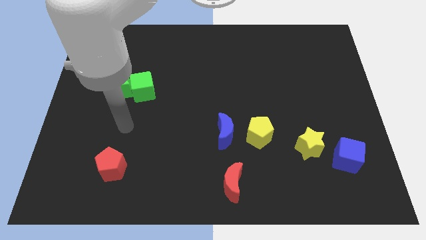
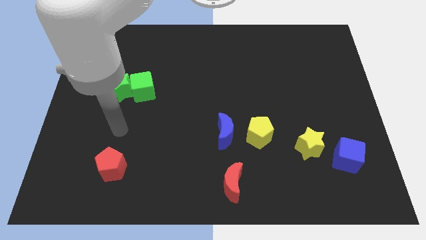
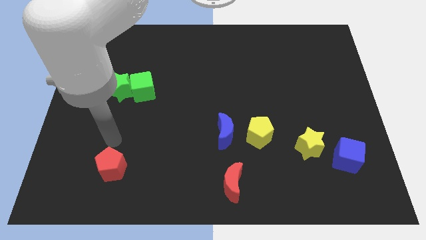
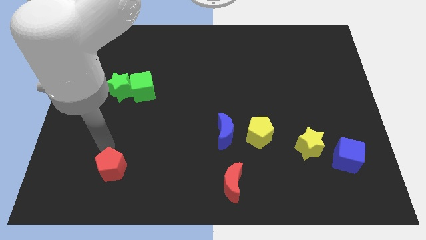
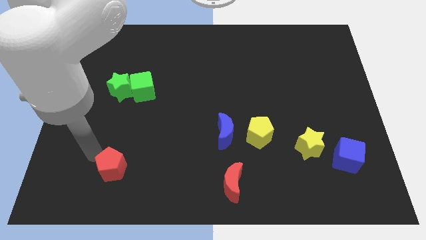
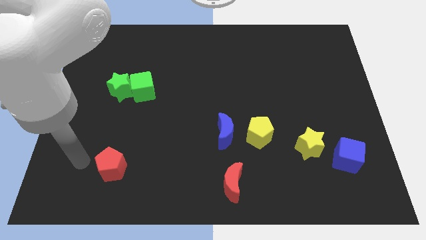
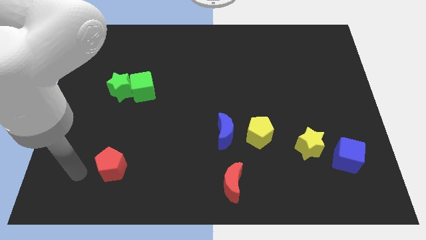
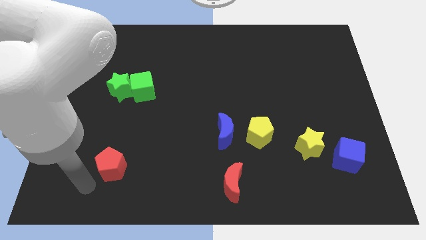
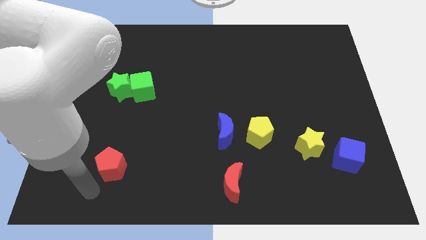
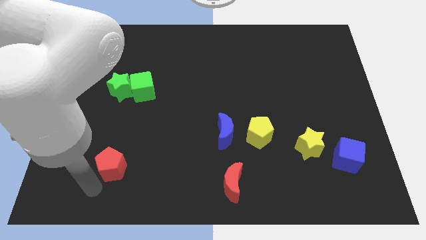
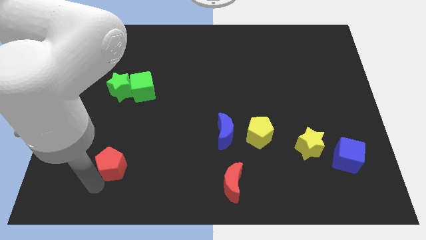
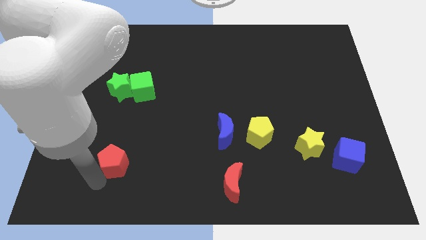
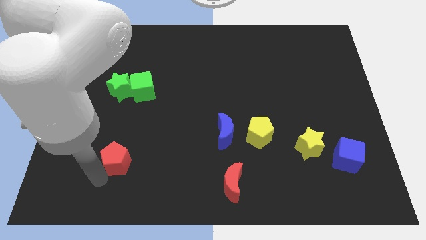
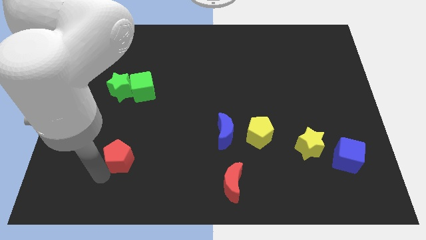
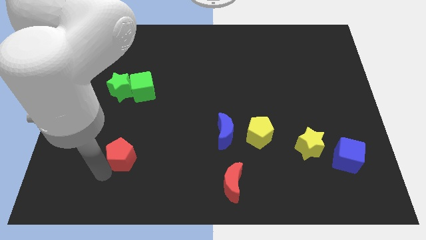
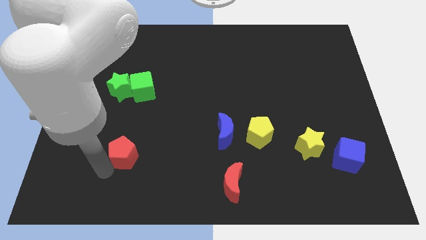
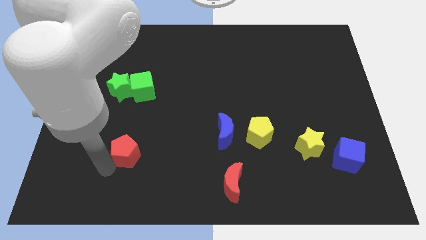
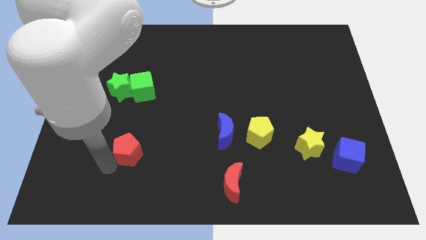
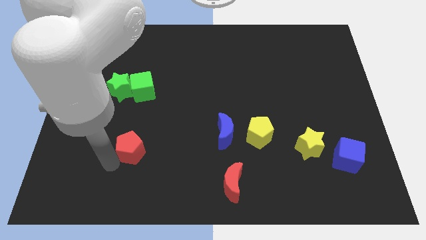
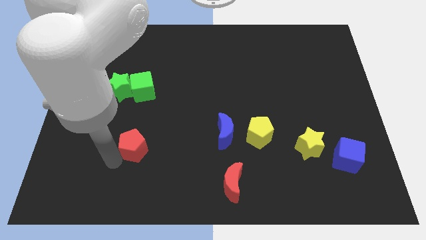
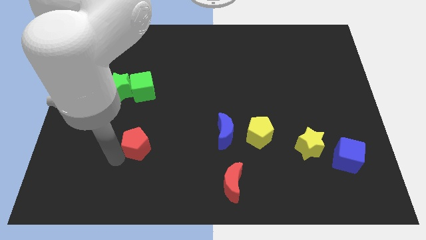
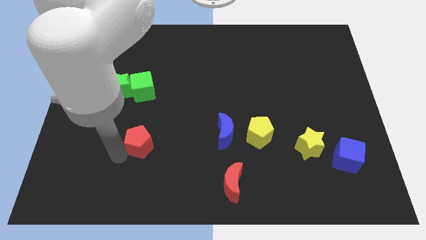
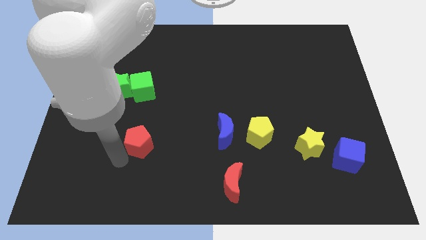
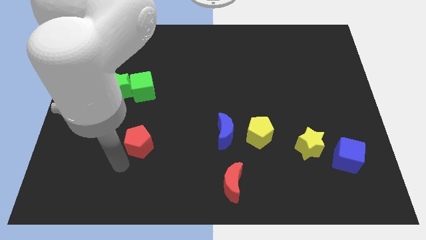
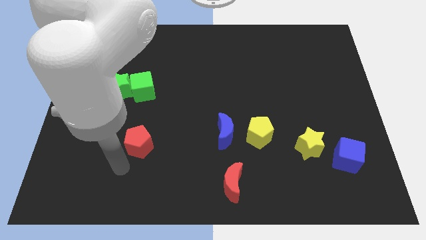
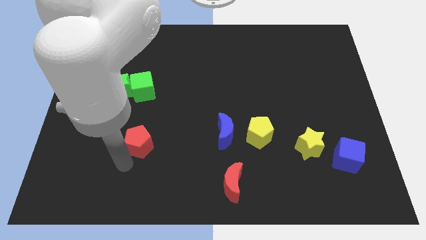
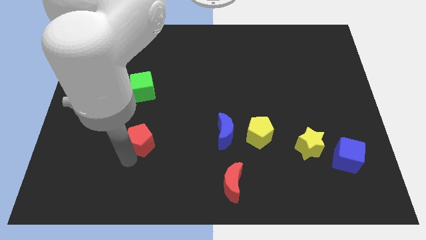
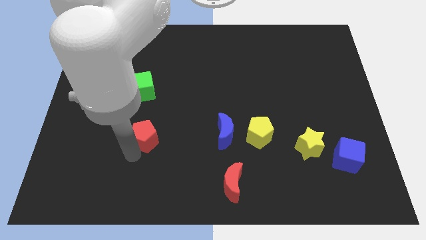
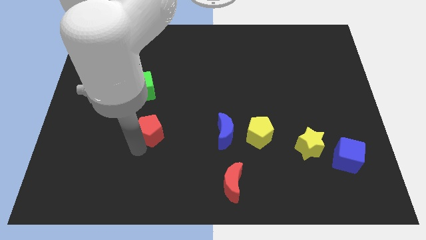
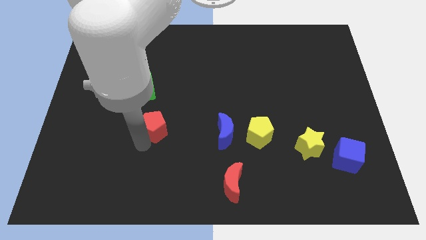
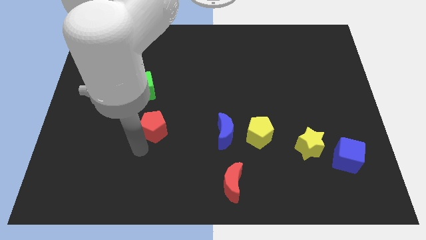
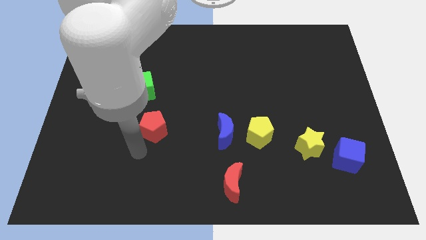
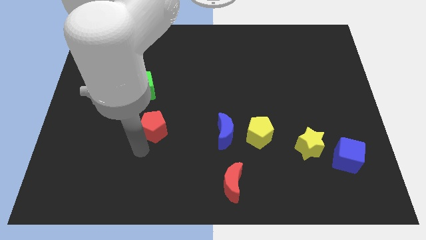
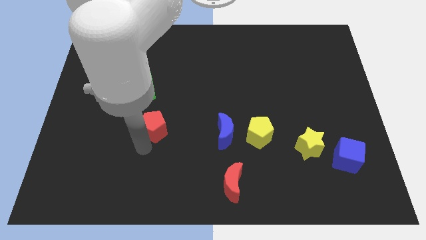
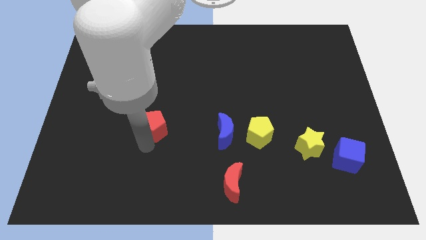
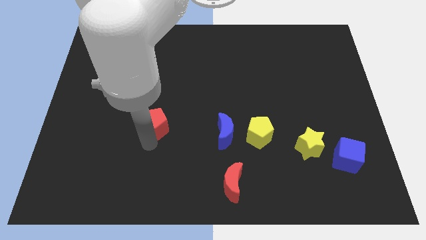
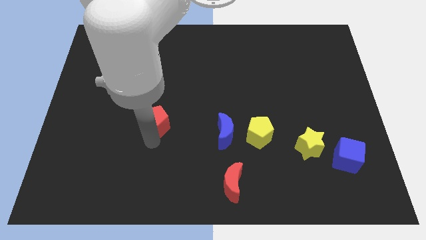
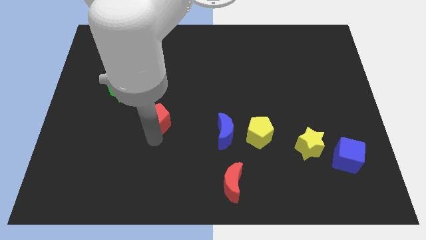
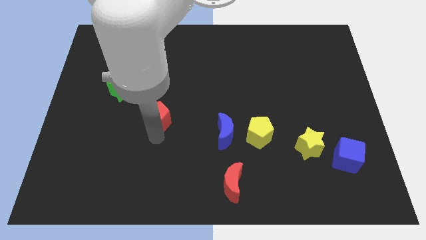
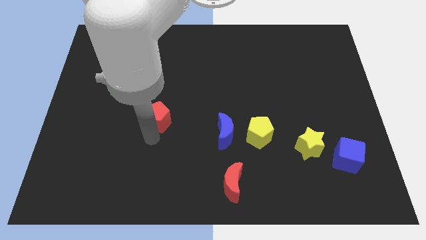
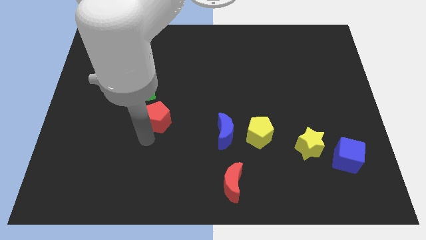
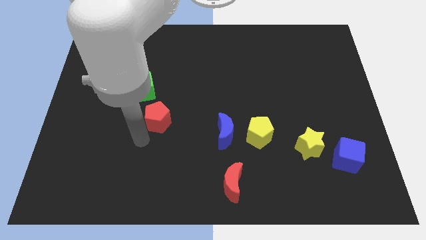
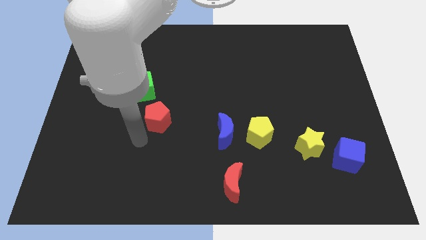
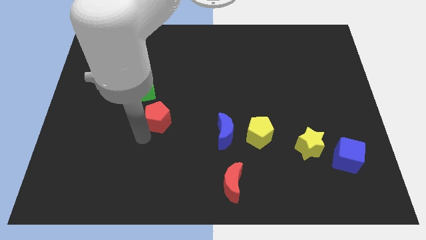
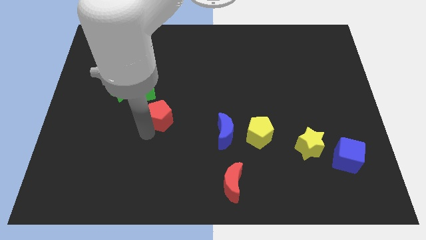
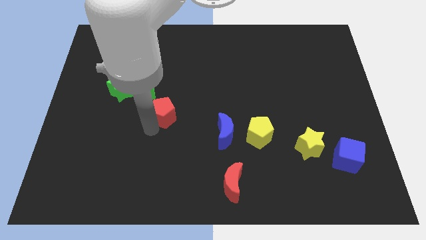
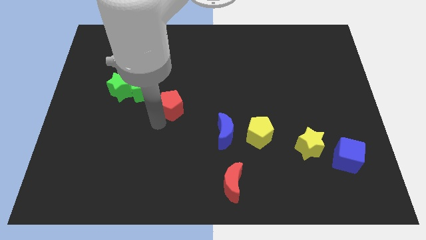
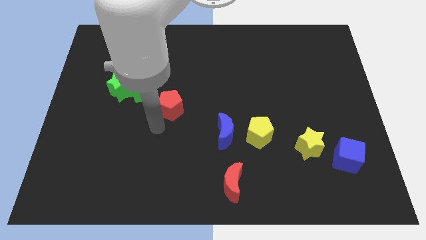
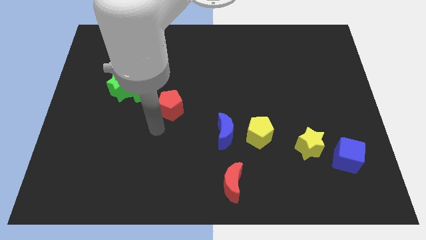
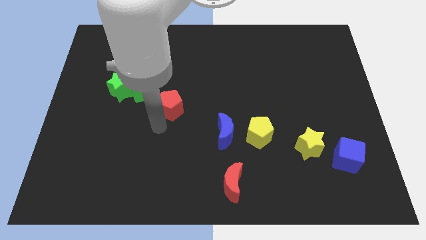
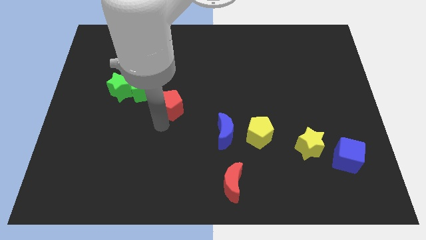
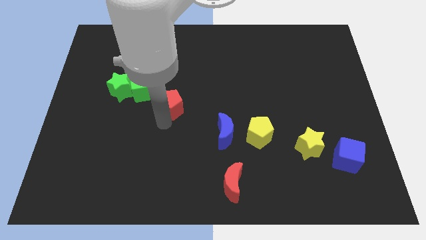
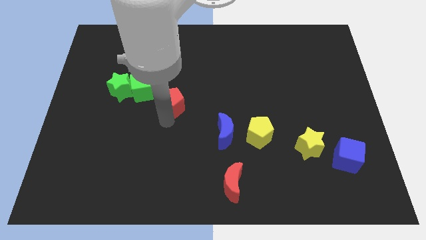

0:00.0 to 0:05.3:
put the red pentagon right of the green cube

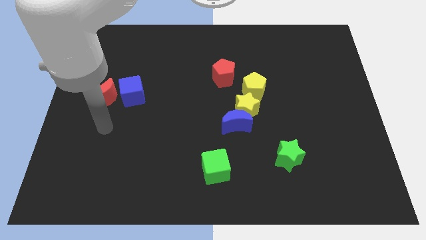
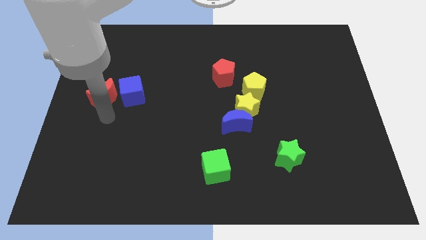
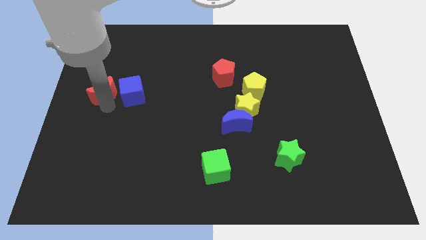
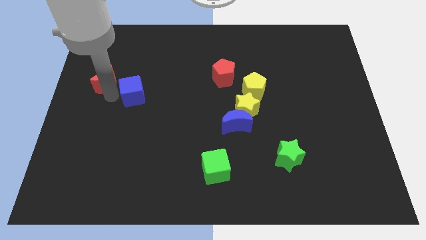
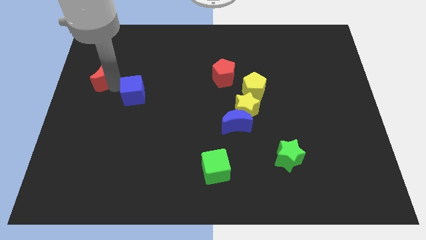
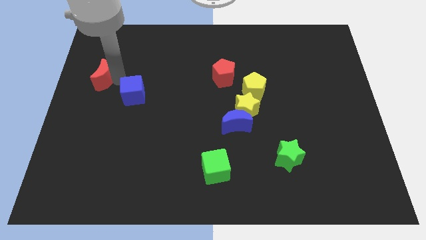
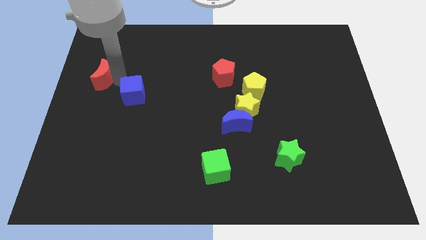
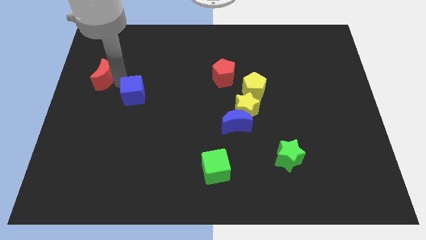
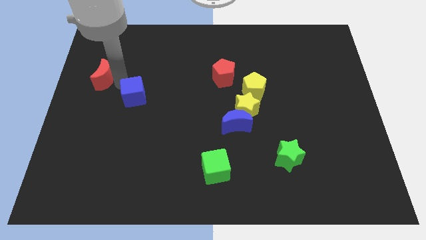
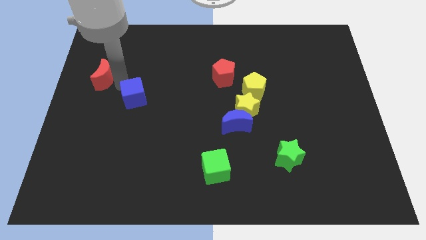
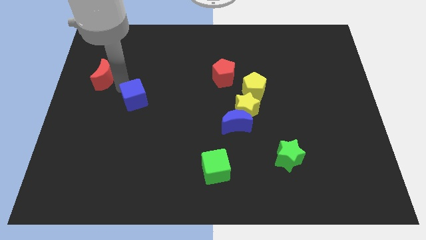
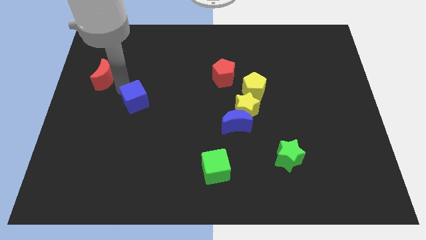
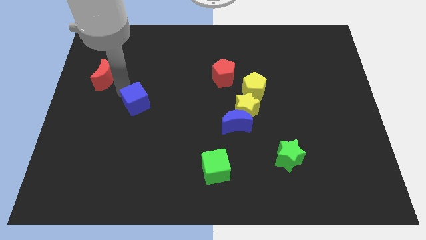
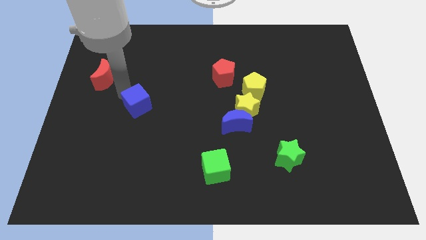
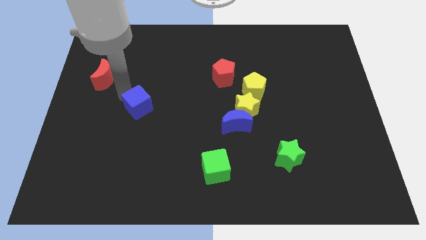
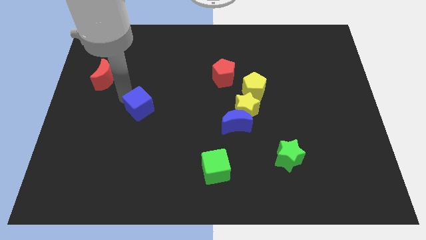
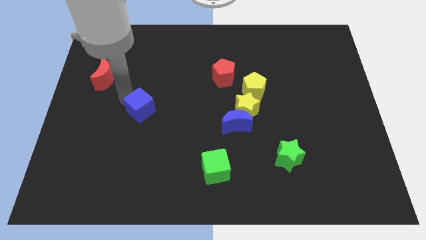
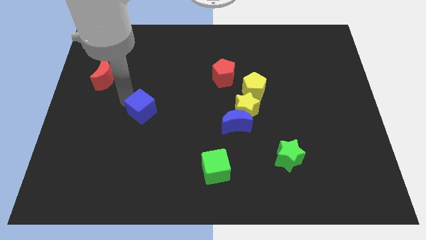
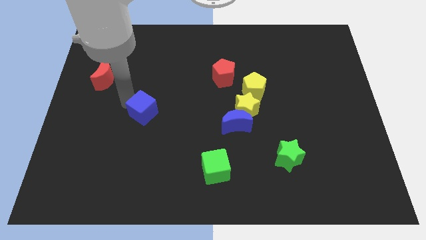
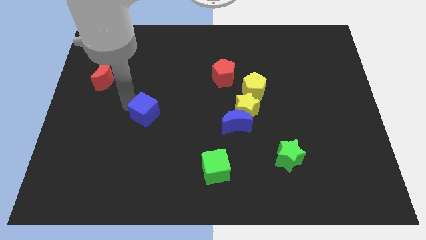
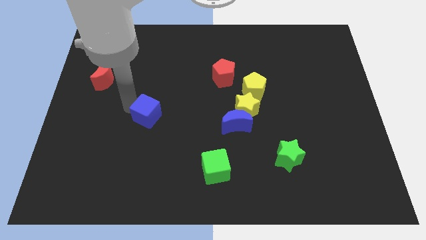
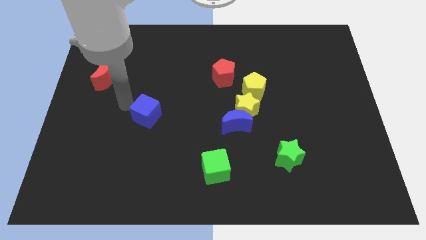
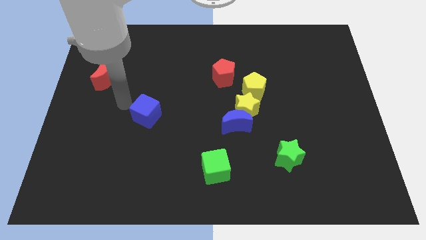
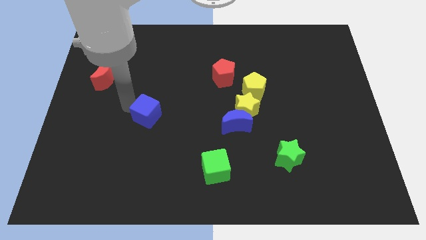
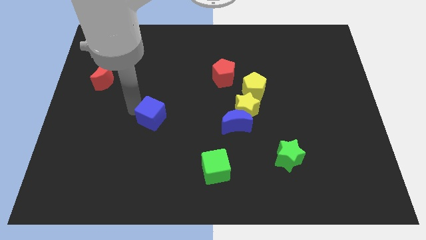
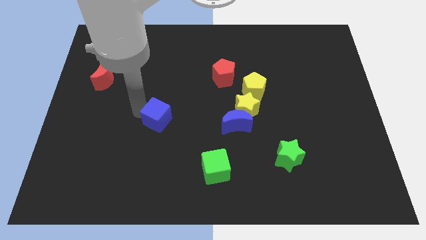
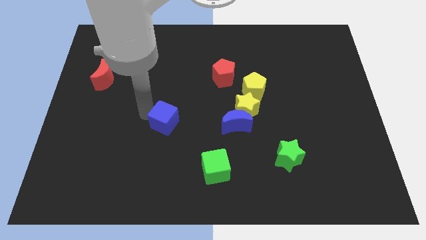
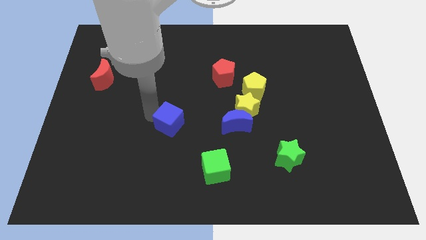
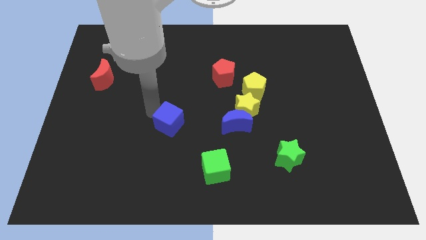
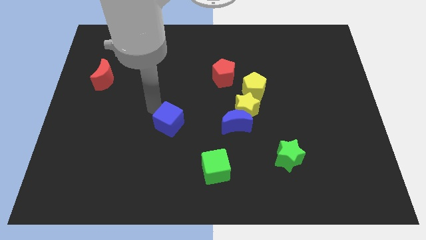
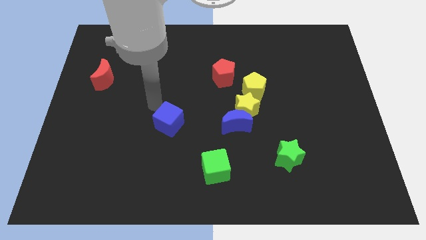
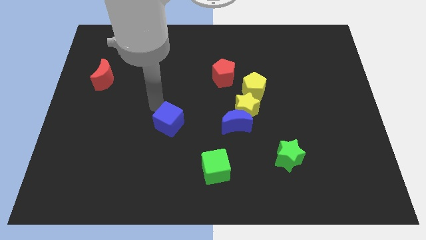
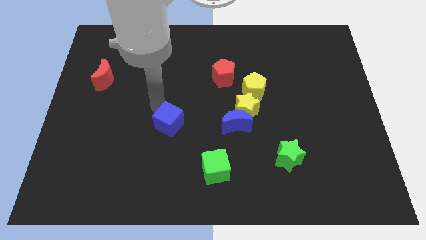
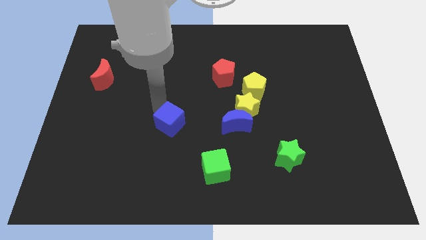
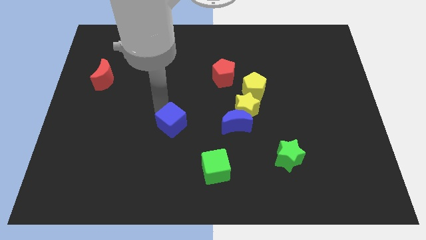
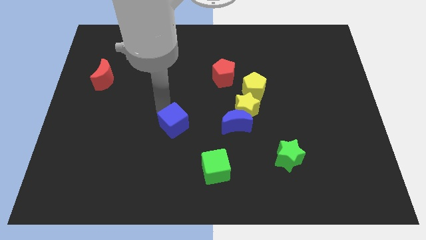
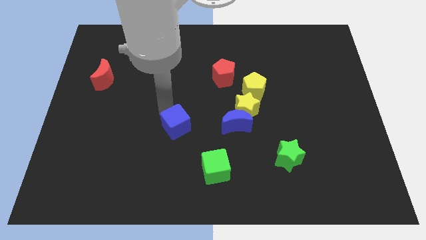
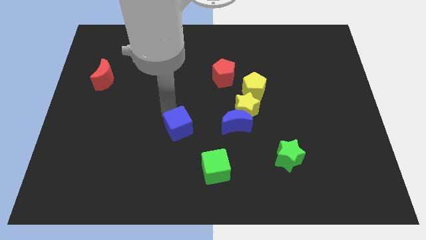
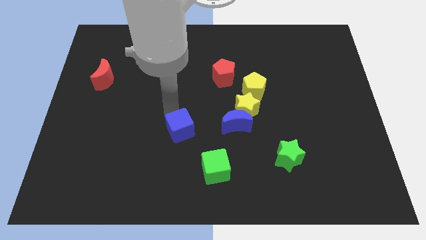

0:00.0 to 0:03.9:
move the blue cube to the top left of the green cube
